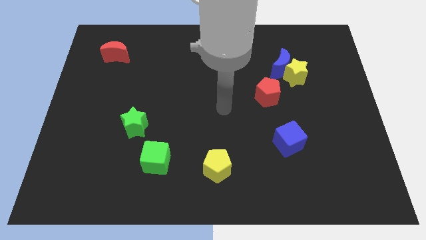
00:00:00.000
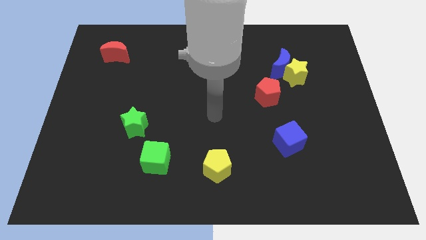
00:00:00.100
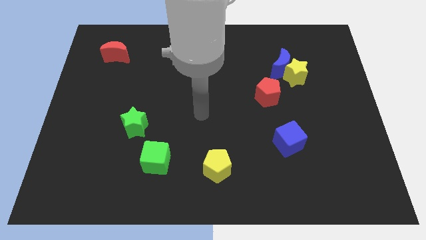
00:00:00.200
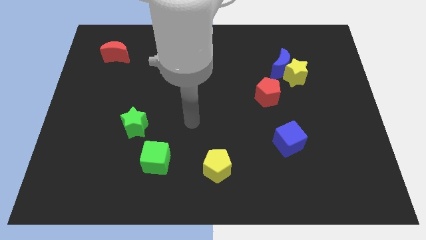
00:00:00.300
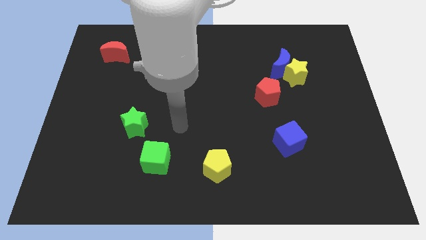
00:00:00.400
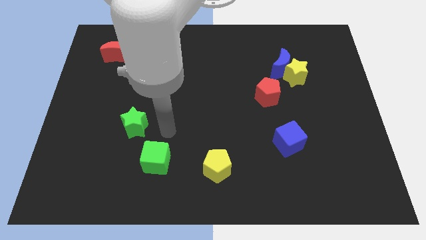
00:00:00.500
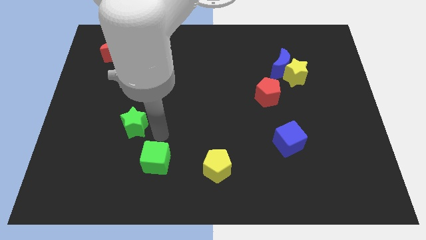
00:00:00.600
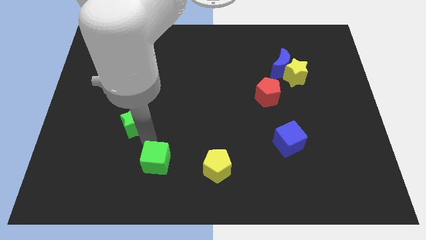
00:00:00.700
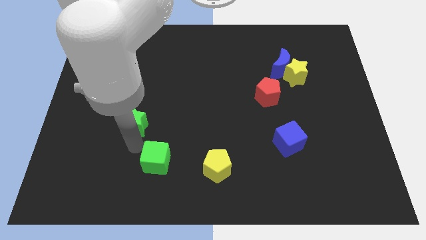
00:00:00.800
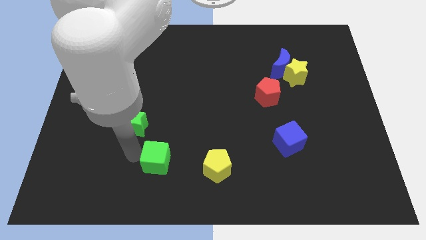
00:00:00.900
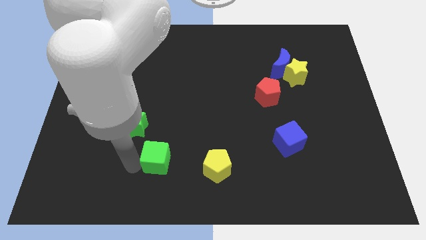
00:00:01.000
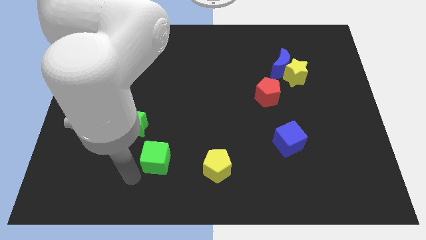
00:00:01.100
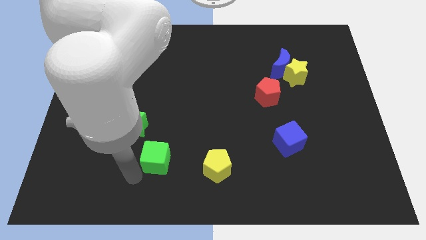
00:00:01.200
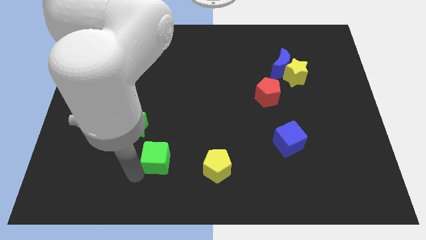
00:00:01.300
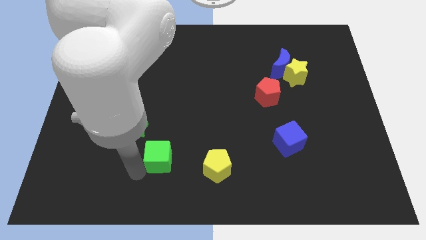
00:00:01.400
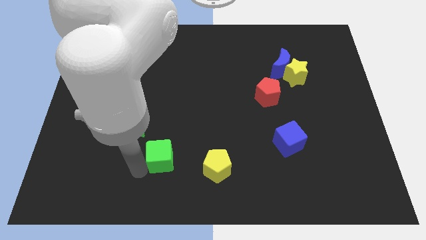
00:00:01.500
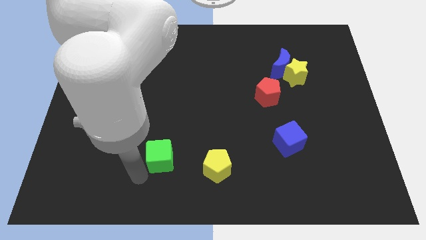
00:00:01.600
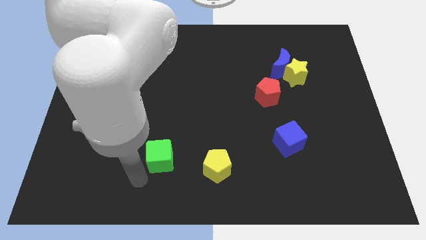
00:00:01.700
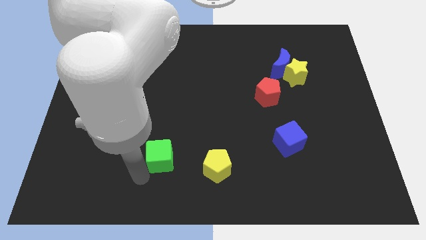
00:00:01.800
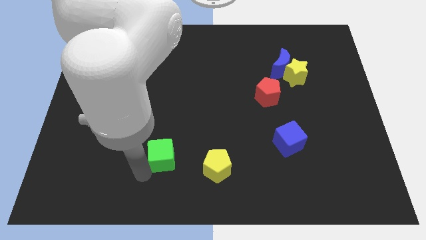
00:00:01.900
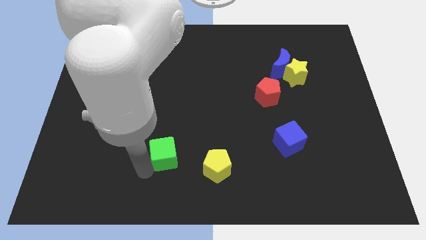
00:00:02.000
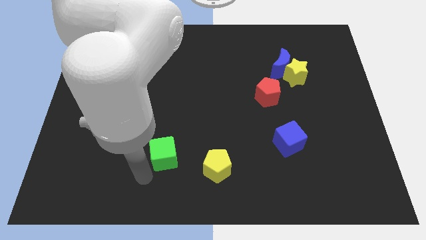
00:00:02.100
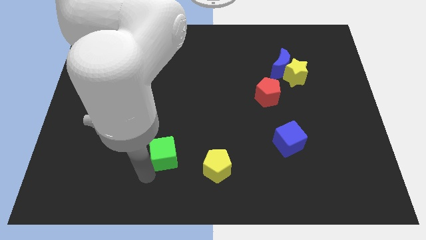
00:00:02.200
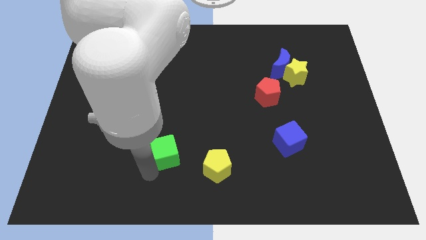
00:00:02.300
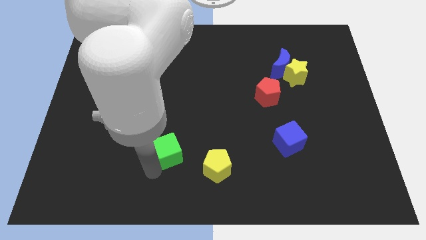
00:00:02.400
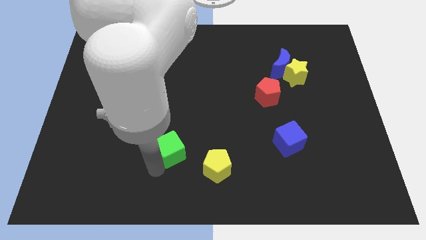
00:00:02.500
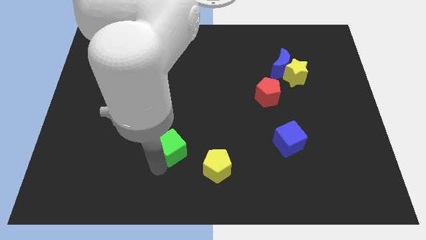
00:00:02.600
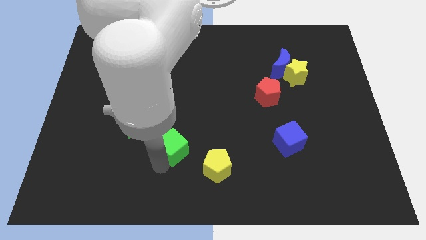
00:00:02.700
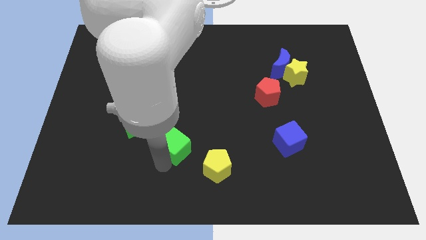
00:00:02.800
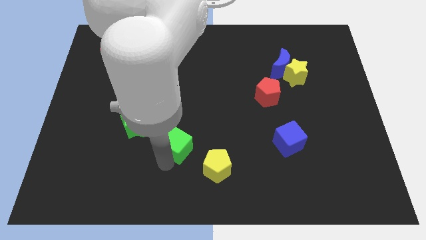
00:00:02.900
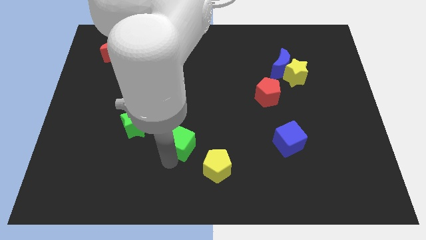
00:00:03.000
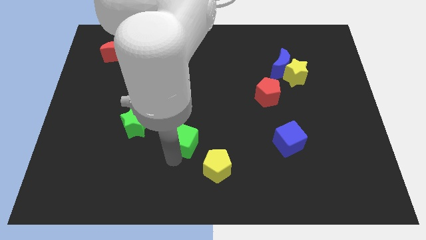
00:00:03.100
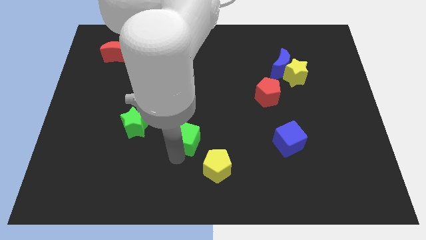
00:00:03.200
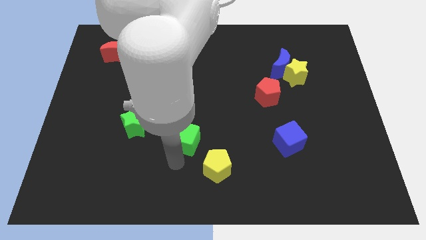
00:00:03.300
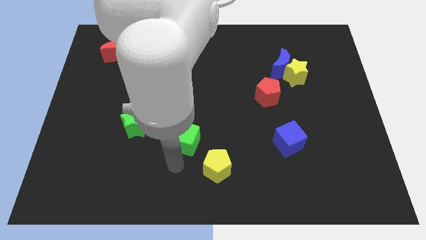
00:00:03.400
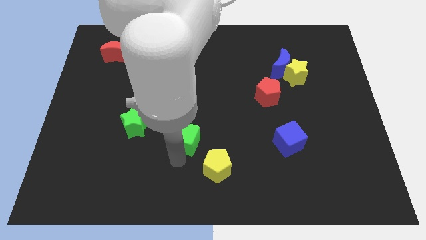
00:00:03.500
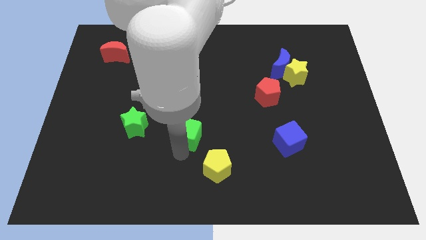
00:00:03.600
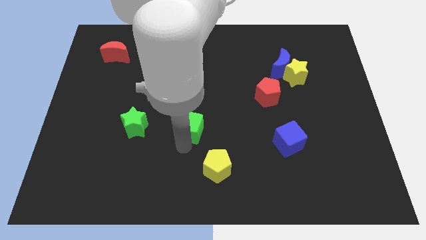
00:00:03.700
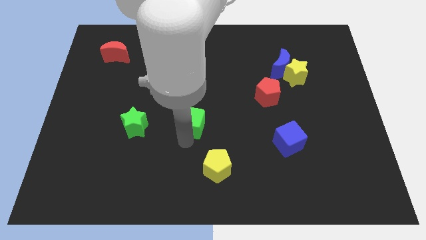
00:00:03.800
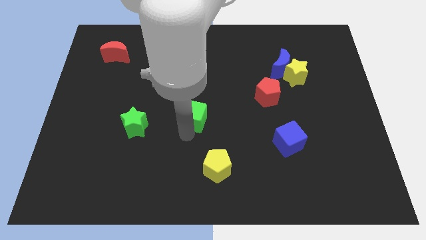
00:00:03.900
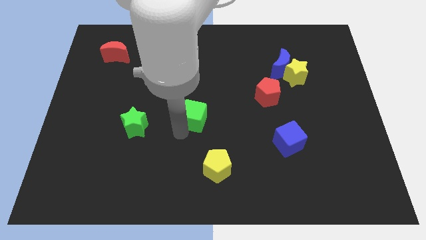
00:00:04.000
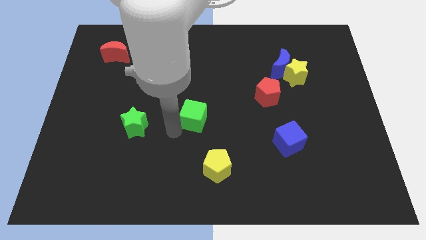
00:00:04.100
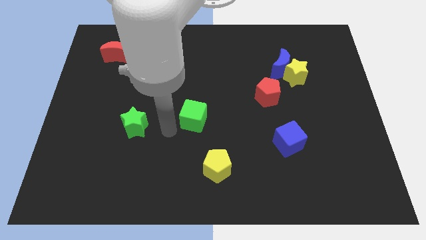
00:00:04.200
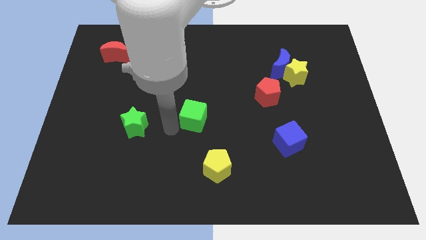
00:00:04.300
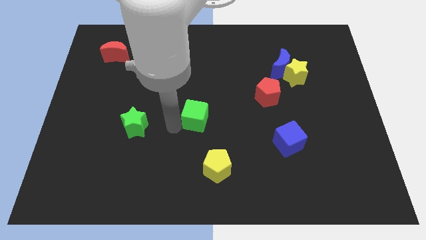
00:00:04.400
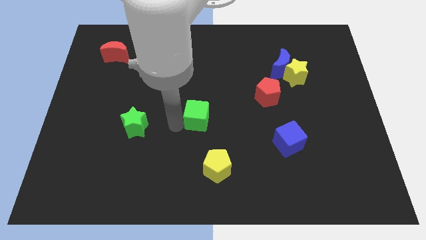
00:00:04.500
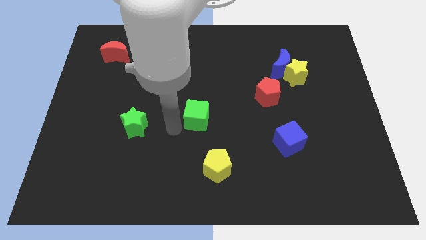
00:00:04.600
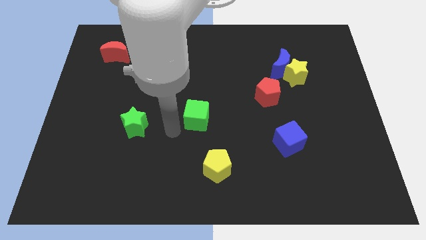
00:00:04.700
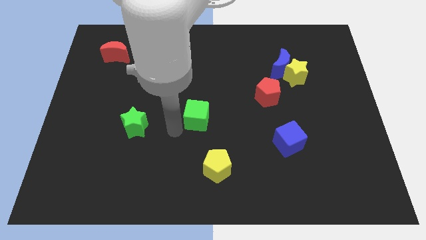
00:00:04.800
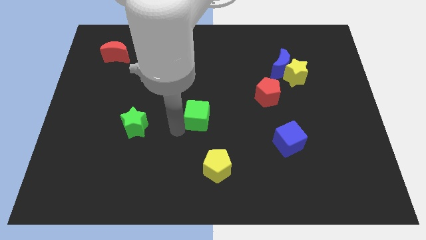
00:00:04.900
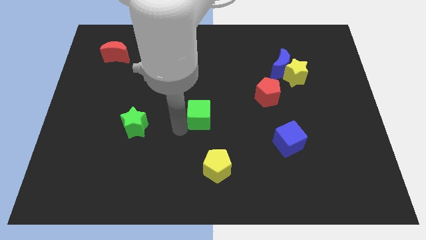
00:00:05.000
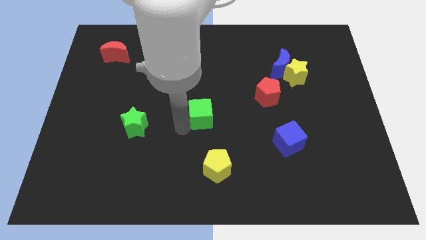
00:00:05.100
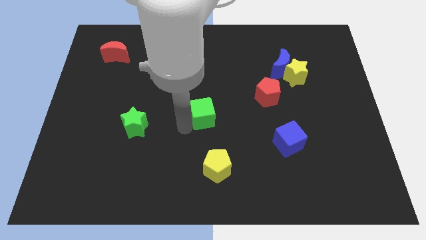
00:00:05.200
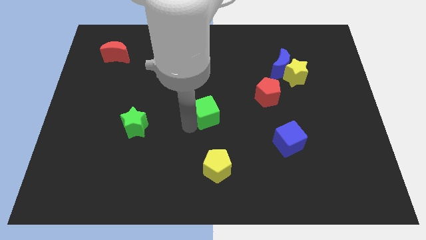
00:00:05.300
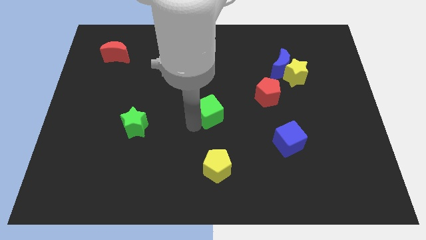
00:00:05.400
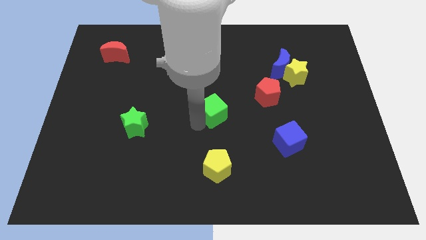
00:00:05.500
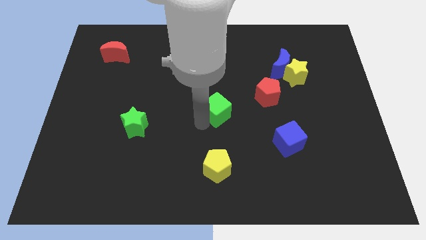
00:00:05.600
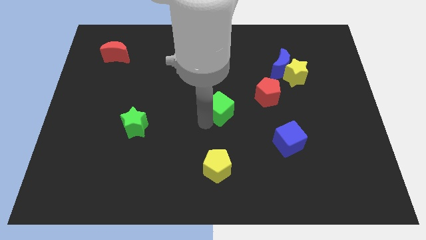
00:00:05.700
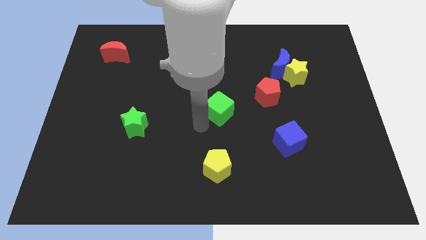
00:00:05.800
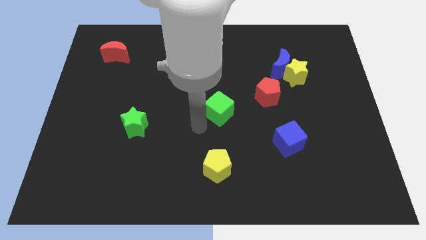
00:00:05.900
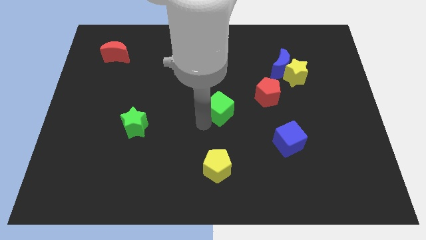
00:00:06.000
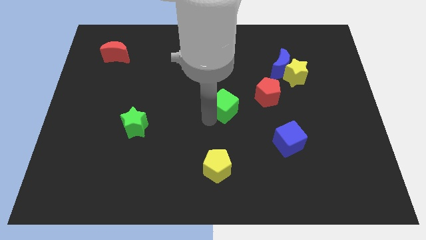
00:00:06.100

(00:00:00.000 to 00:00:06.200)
move the green cube up and to the right diagonally

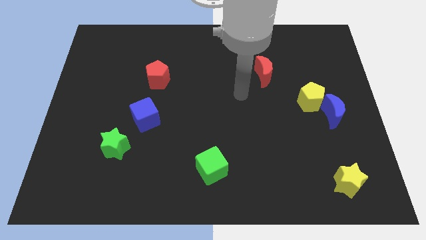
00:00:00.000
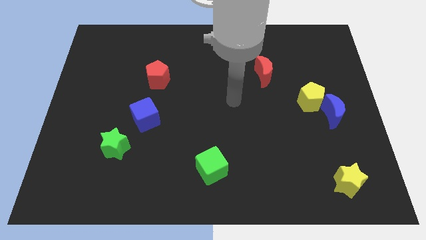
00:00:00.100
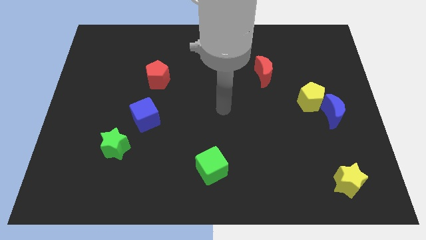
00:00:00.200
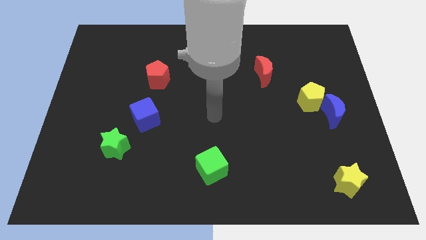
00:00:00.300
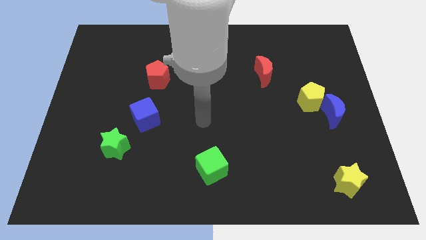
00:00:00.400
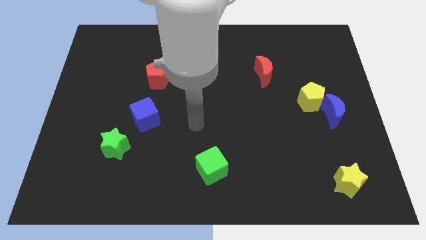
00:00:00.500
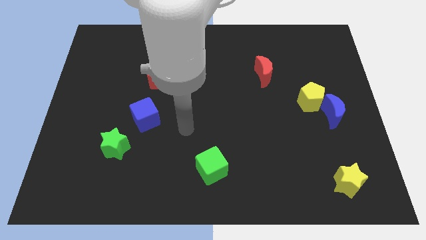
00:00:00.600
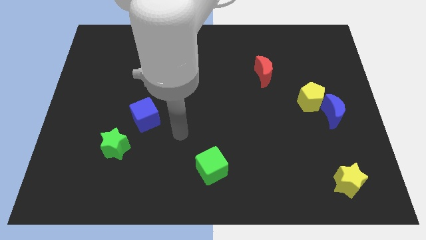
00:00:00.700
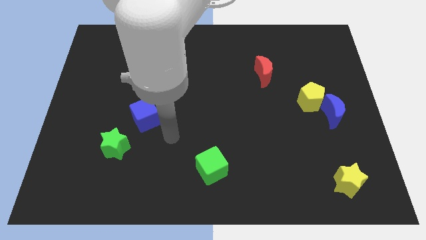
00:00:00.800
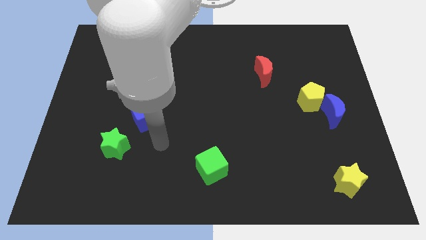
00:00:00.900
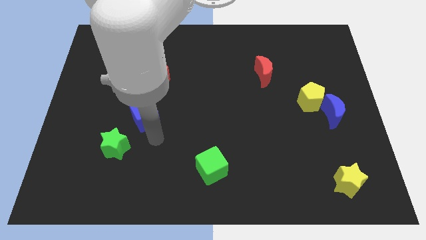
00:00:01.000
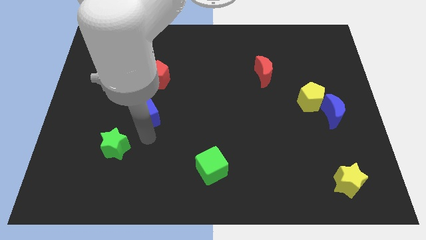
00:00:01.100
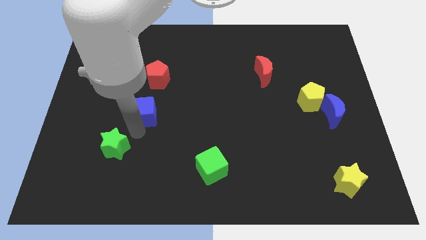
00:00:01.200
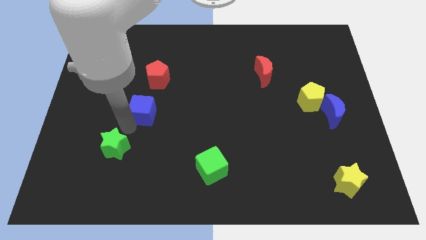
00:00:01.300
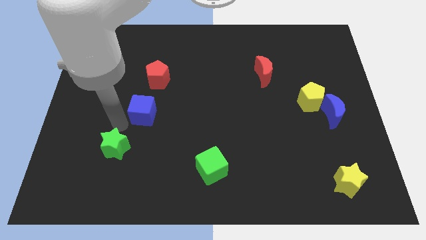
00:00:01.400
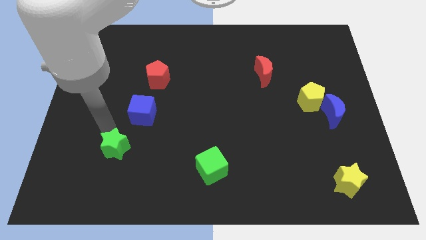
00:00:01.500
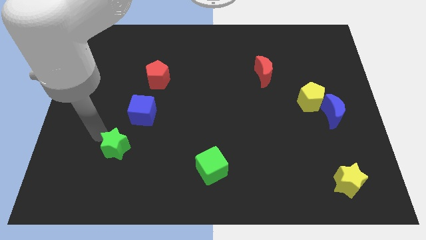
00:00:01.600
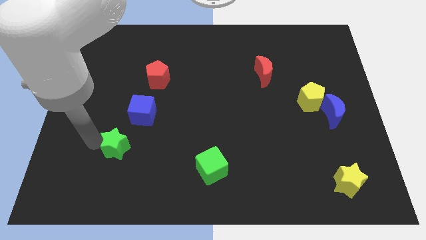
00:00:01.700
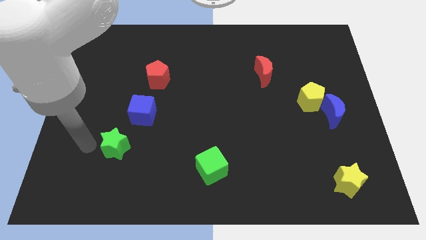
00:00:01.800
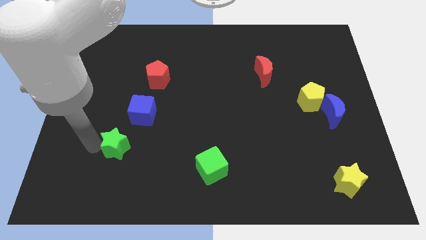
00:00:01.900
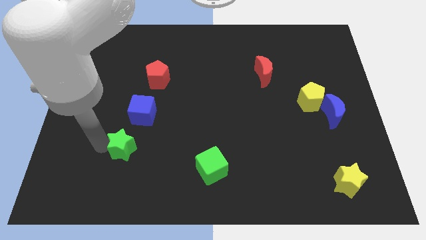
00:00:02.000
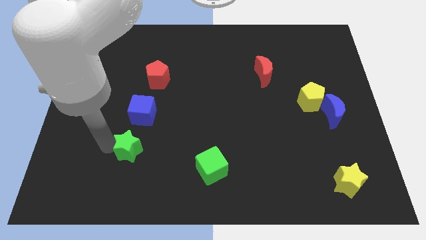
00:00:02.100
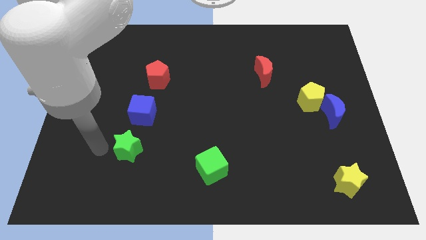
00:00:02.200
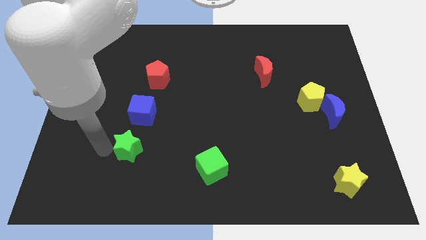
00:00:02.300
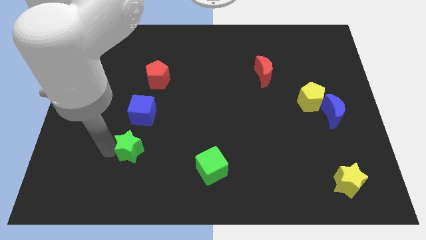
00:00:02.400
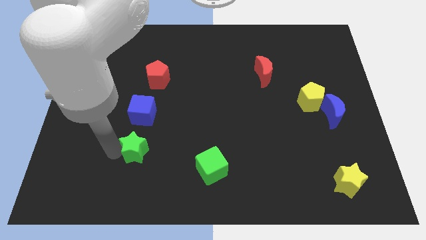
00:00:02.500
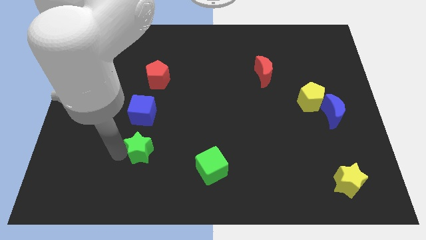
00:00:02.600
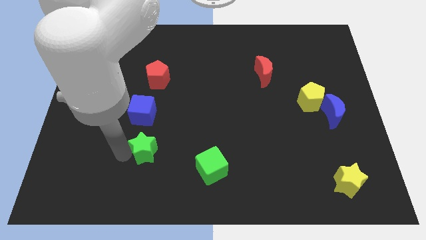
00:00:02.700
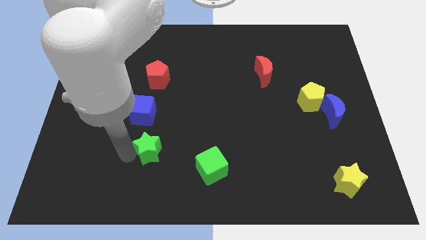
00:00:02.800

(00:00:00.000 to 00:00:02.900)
push the green star slightly right
